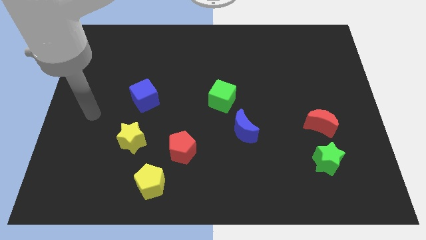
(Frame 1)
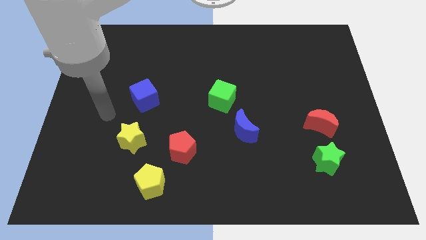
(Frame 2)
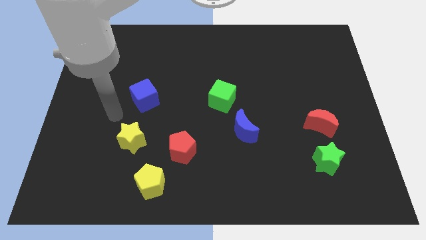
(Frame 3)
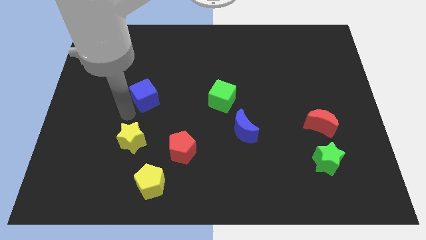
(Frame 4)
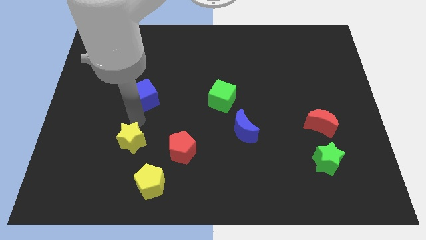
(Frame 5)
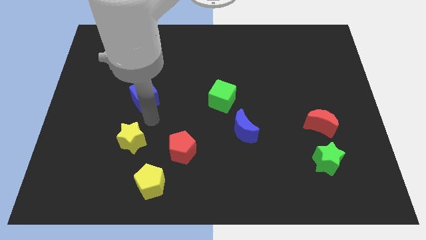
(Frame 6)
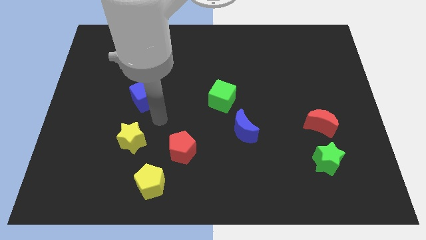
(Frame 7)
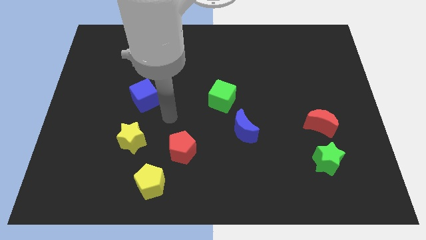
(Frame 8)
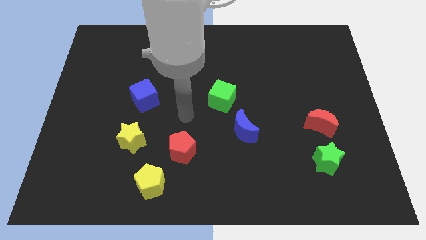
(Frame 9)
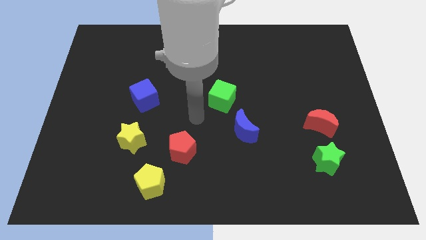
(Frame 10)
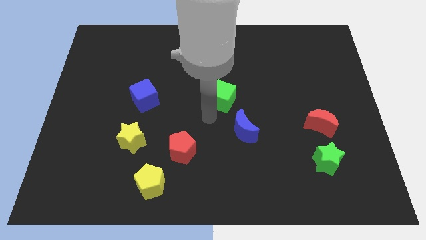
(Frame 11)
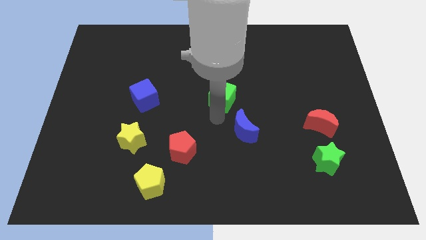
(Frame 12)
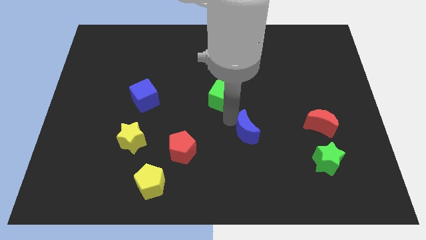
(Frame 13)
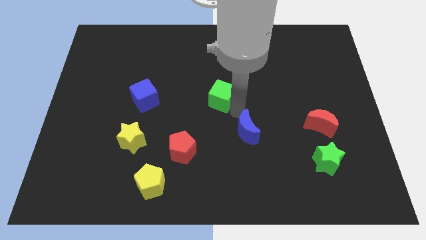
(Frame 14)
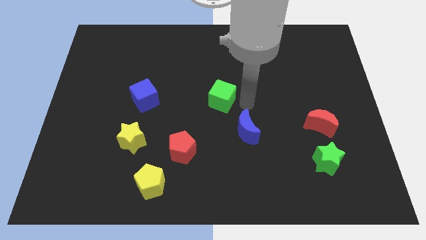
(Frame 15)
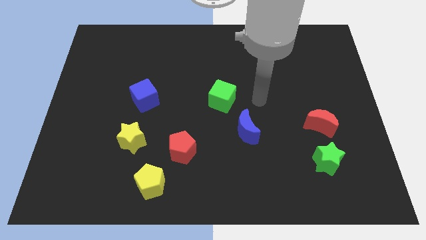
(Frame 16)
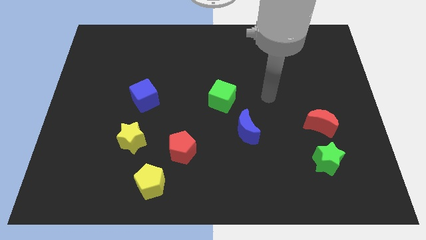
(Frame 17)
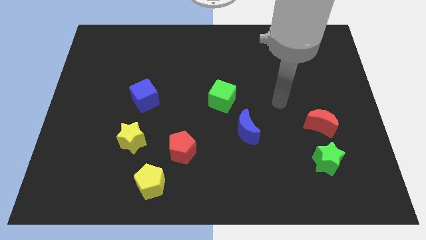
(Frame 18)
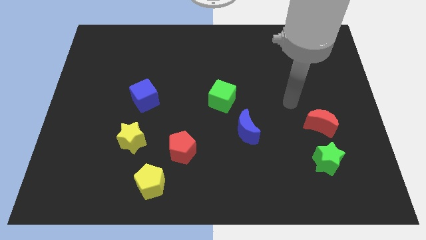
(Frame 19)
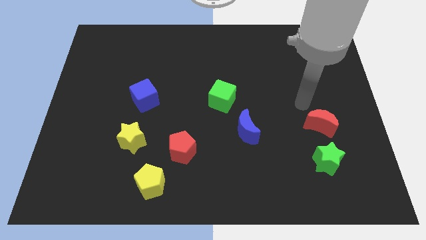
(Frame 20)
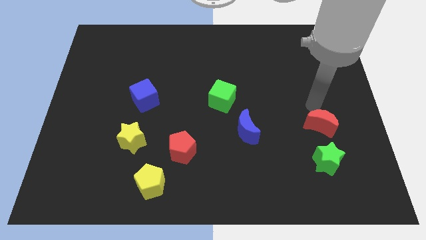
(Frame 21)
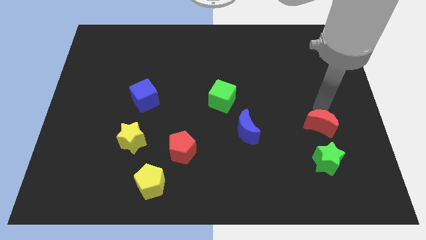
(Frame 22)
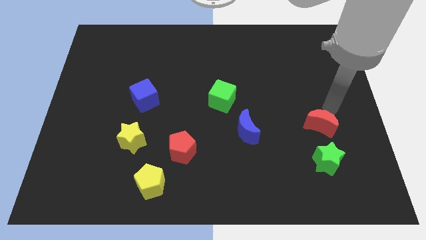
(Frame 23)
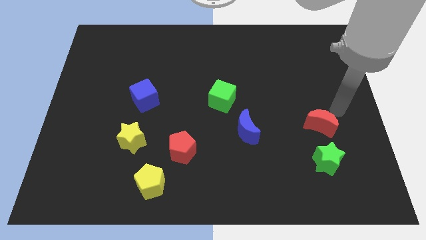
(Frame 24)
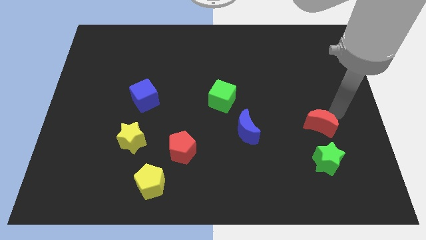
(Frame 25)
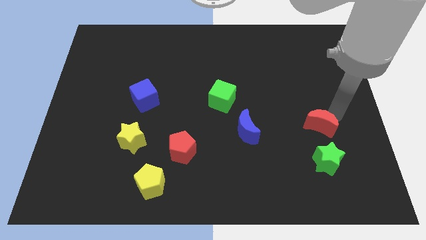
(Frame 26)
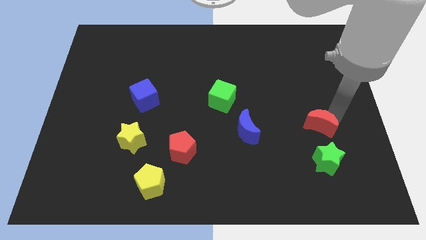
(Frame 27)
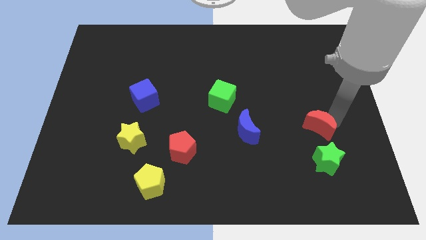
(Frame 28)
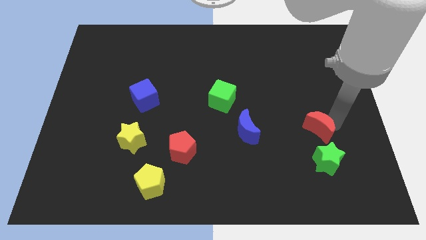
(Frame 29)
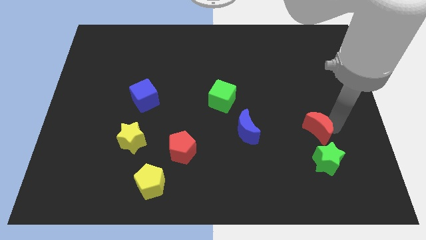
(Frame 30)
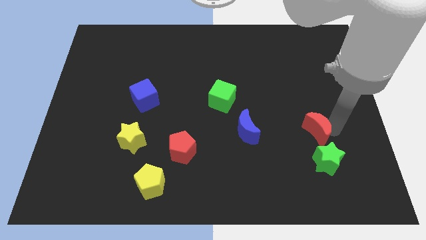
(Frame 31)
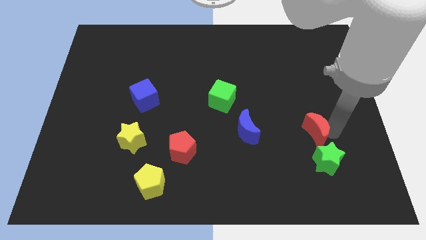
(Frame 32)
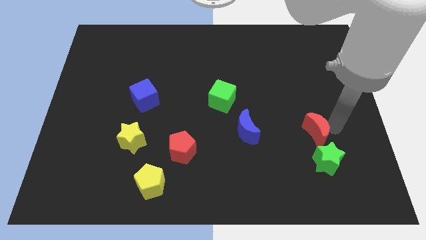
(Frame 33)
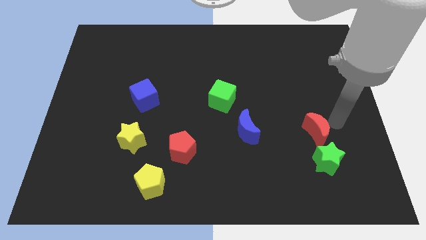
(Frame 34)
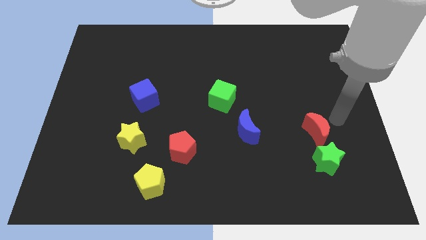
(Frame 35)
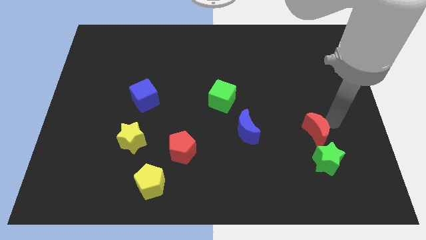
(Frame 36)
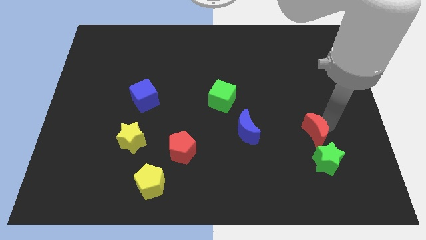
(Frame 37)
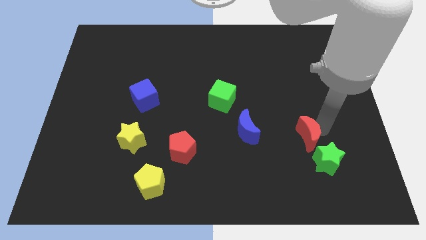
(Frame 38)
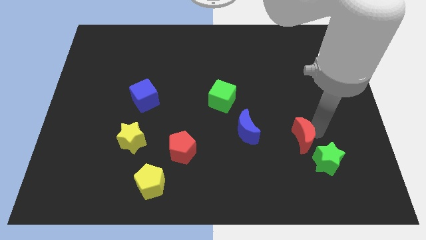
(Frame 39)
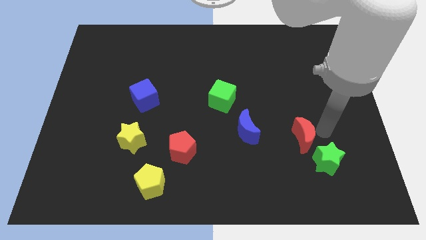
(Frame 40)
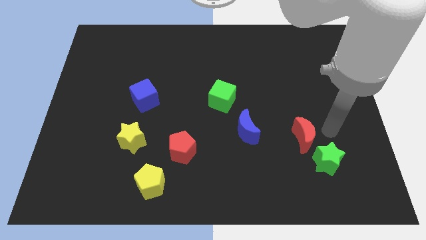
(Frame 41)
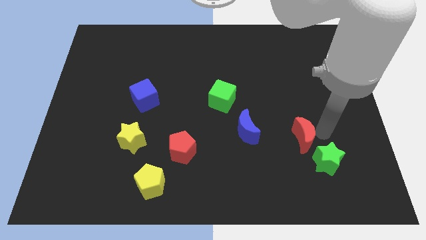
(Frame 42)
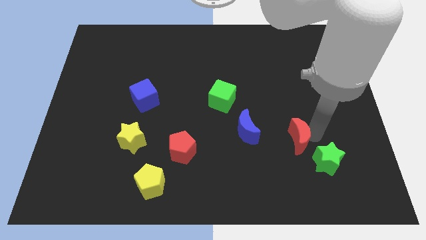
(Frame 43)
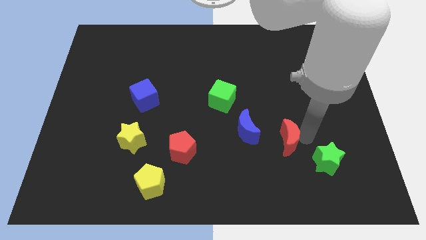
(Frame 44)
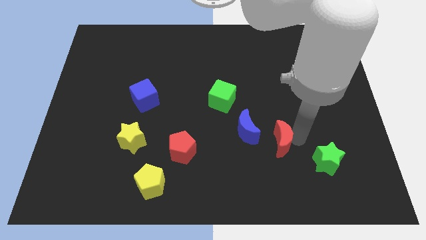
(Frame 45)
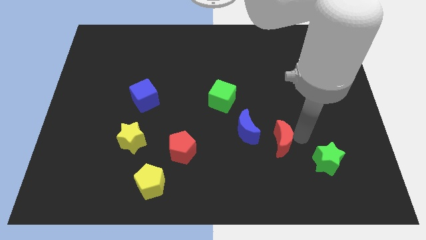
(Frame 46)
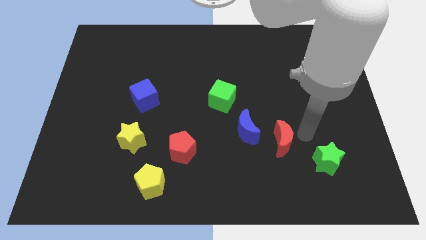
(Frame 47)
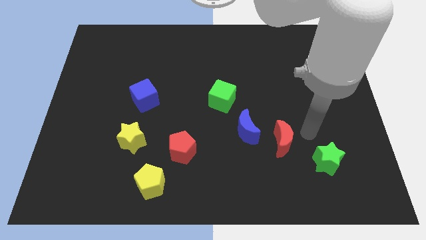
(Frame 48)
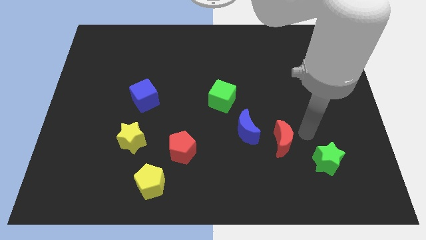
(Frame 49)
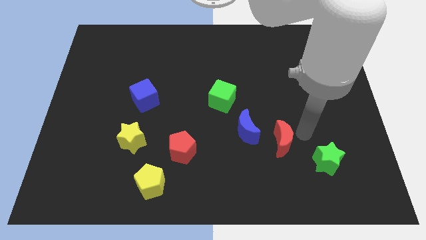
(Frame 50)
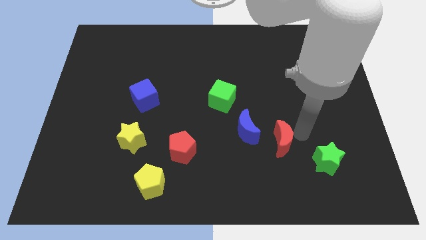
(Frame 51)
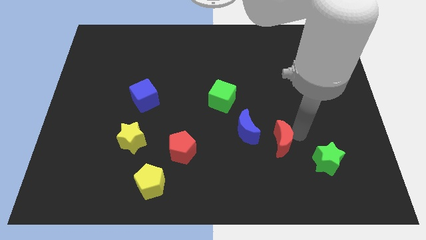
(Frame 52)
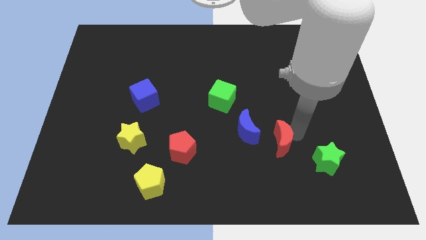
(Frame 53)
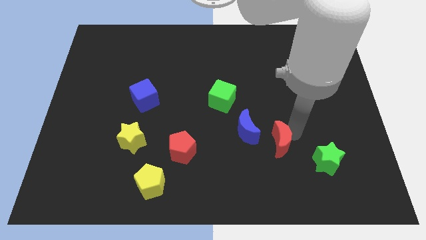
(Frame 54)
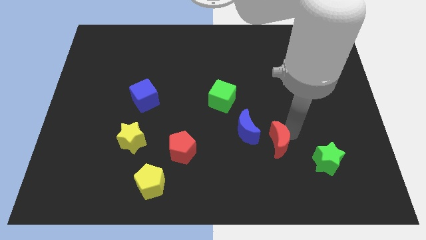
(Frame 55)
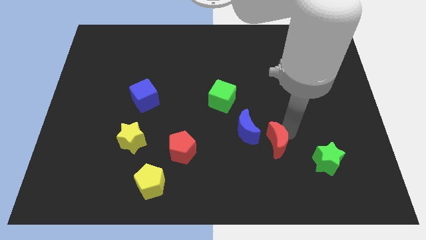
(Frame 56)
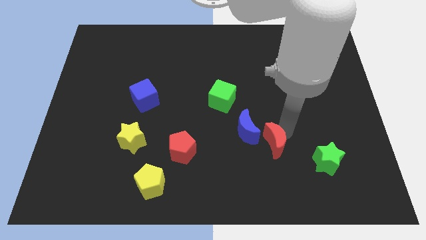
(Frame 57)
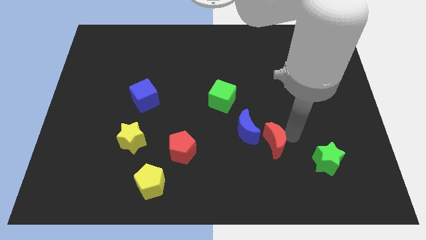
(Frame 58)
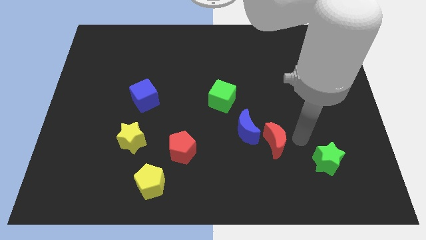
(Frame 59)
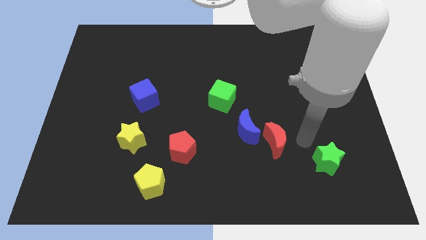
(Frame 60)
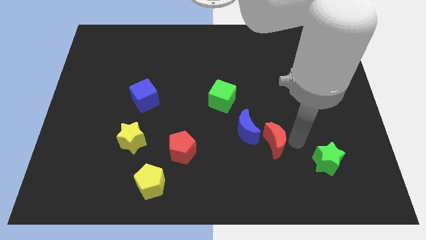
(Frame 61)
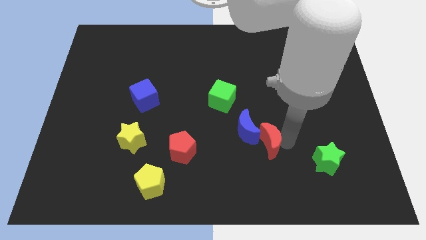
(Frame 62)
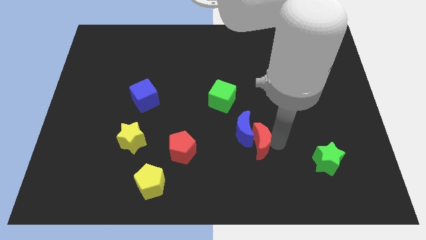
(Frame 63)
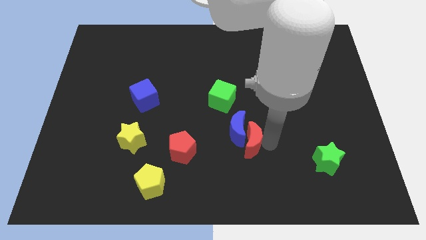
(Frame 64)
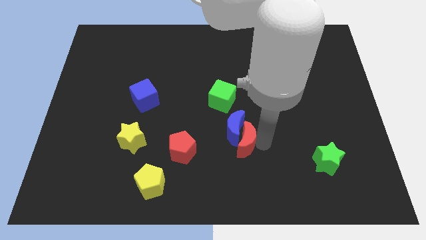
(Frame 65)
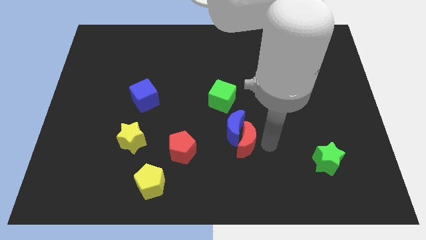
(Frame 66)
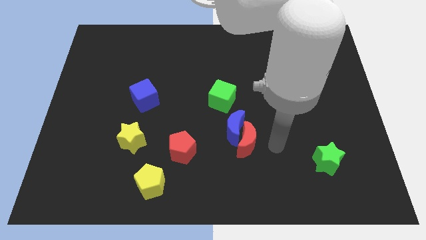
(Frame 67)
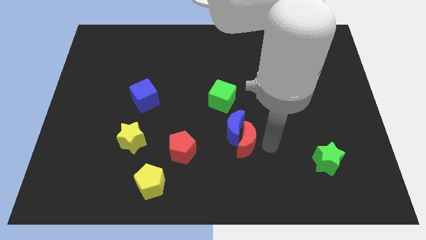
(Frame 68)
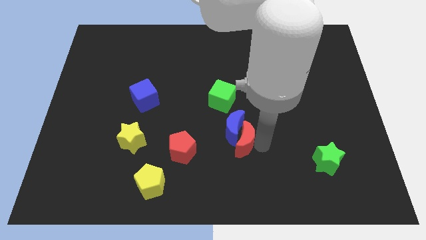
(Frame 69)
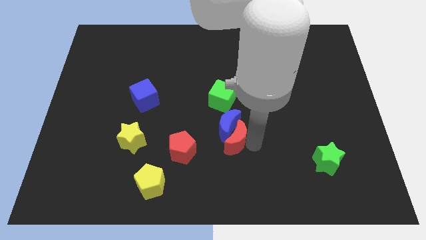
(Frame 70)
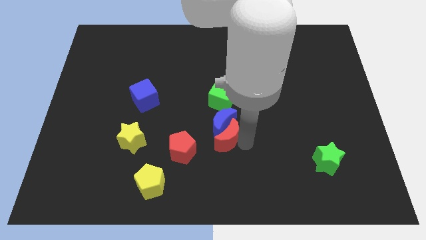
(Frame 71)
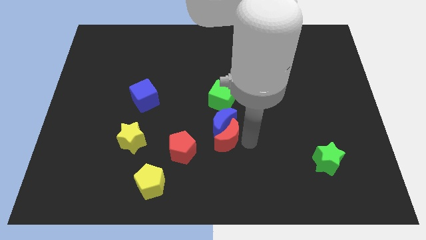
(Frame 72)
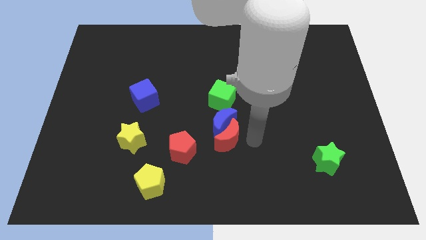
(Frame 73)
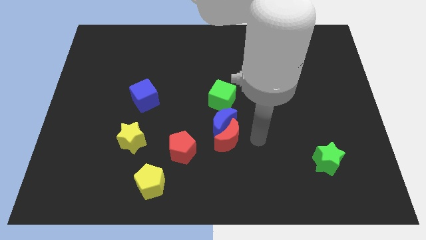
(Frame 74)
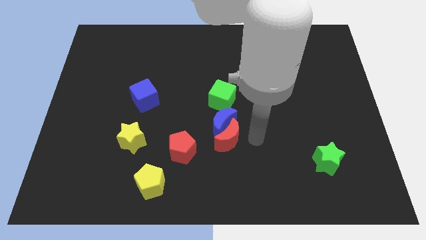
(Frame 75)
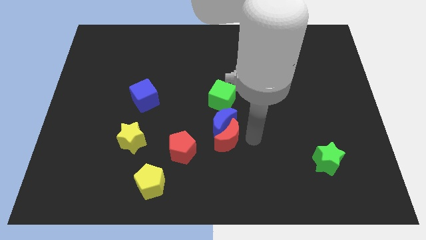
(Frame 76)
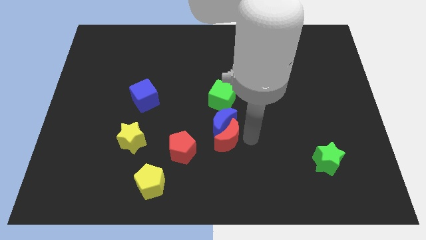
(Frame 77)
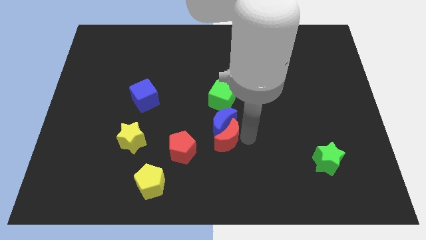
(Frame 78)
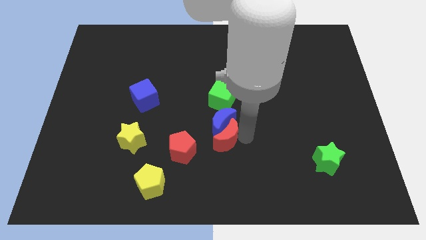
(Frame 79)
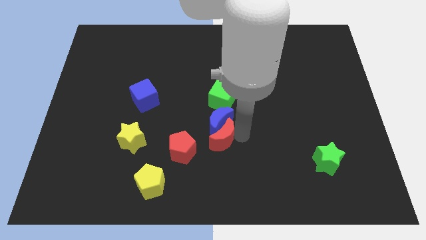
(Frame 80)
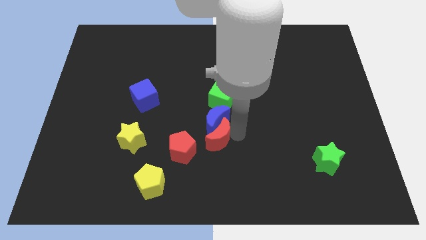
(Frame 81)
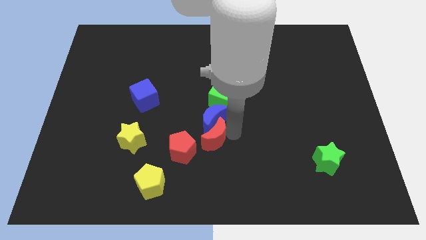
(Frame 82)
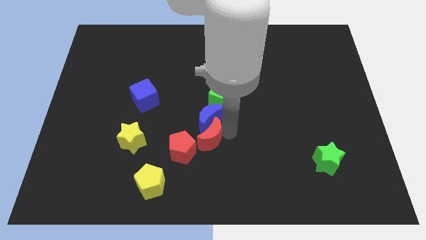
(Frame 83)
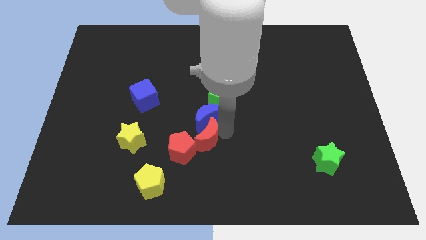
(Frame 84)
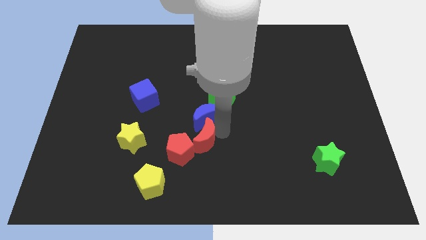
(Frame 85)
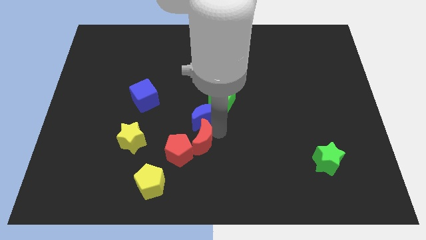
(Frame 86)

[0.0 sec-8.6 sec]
slide the red moon close to the red pentagon
